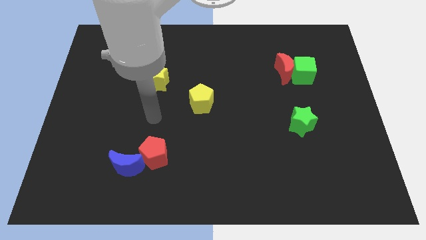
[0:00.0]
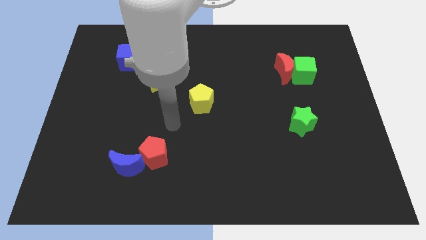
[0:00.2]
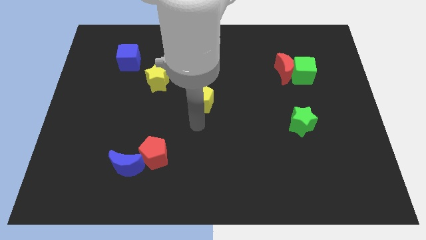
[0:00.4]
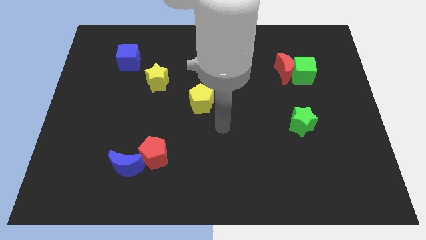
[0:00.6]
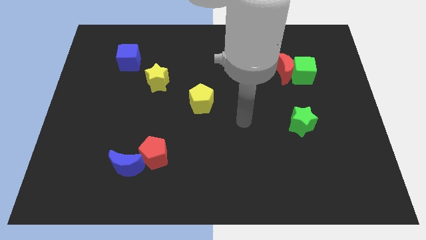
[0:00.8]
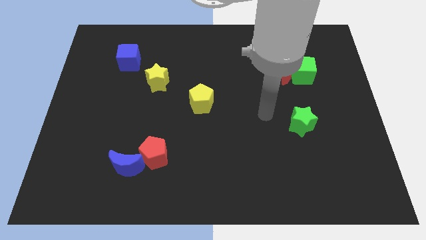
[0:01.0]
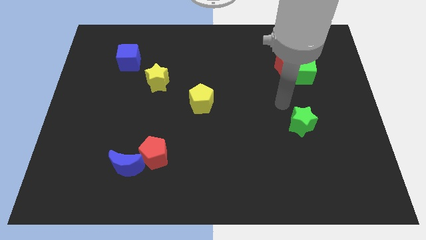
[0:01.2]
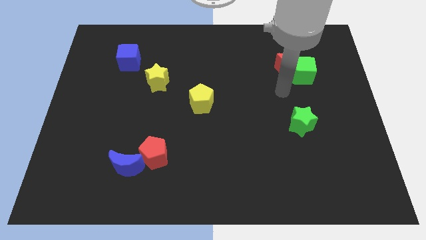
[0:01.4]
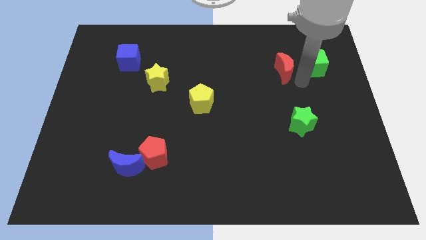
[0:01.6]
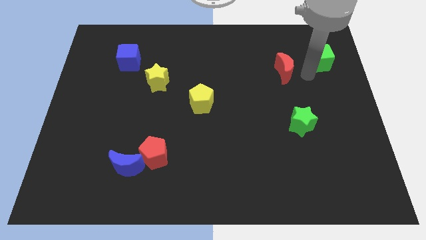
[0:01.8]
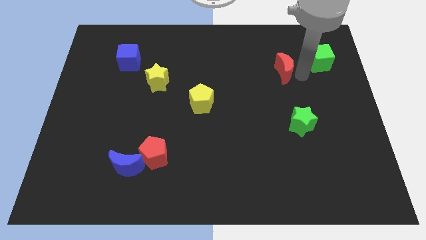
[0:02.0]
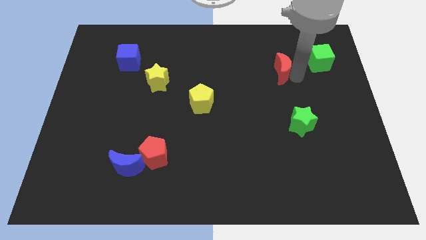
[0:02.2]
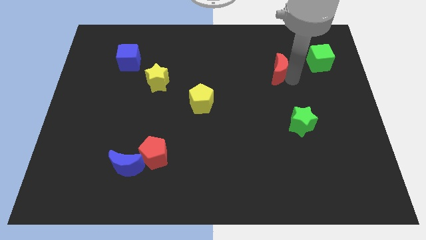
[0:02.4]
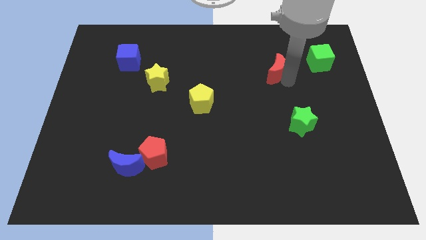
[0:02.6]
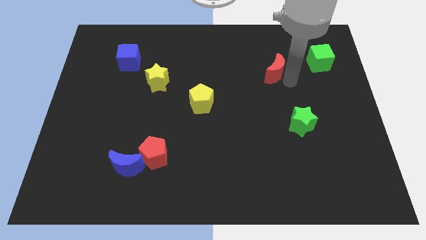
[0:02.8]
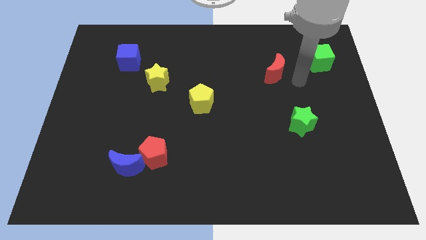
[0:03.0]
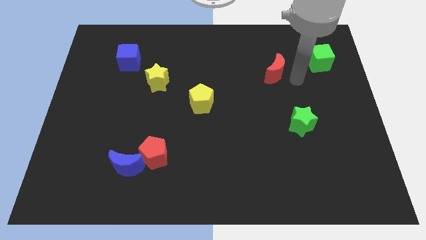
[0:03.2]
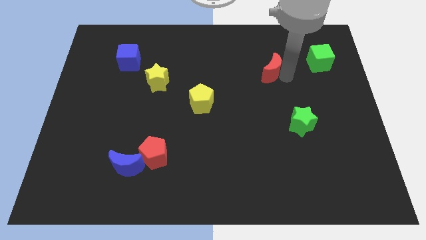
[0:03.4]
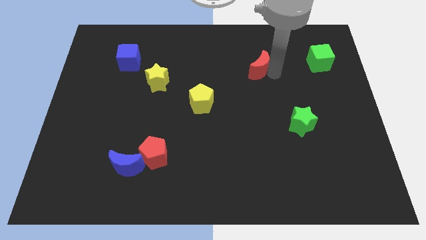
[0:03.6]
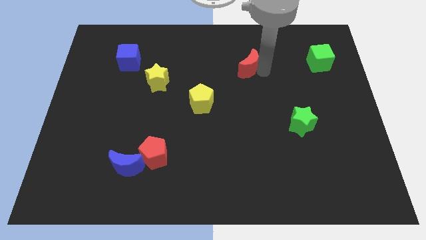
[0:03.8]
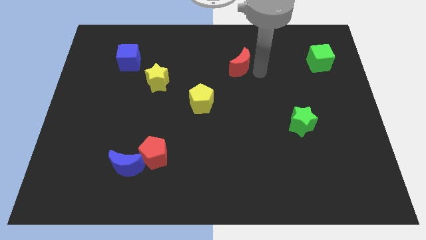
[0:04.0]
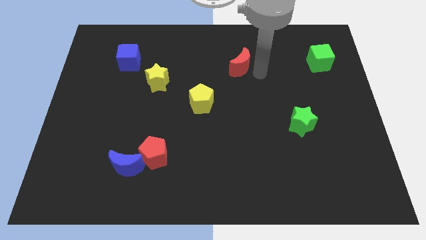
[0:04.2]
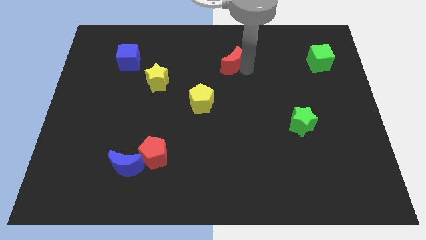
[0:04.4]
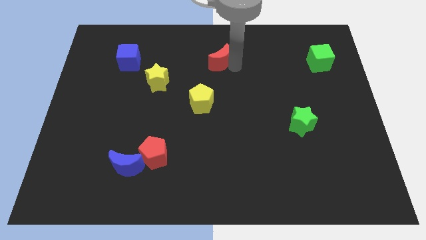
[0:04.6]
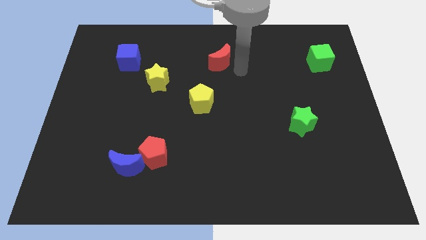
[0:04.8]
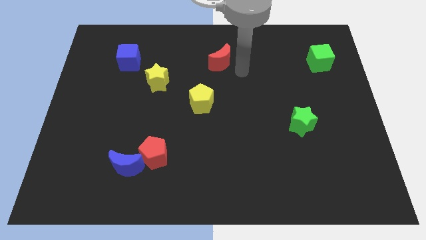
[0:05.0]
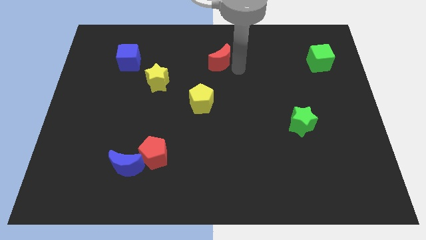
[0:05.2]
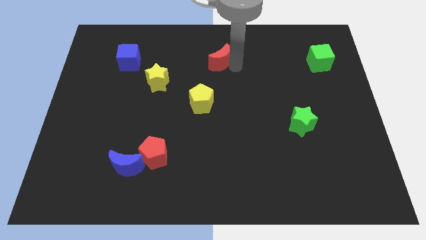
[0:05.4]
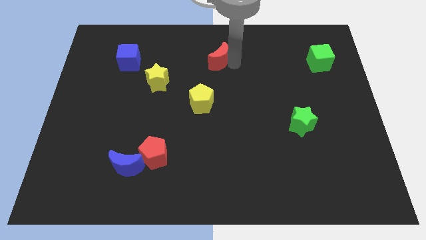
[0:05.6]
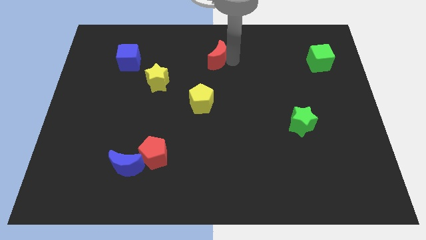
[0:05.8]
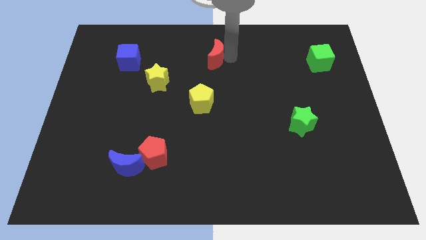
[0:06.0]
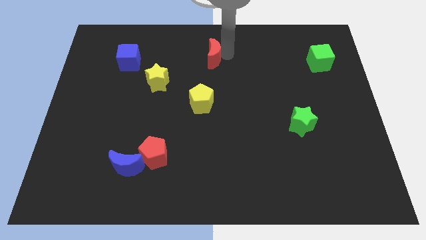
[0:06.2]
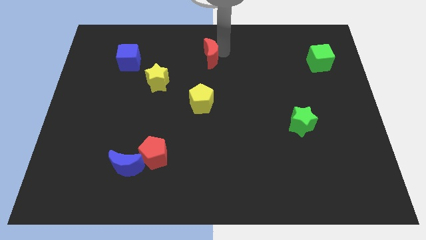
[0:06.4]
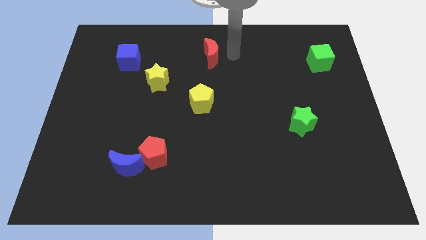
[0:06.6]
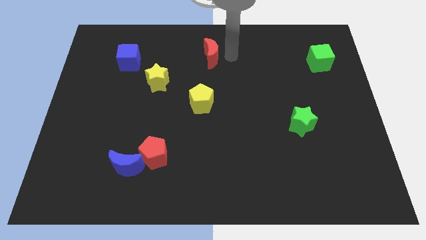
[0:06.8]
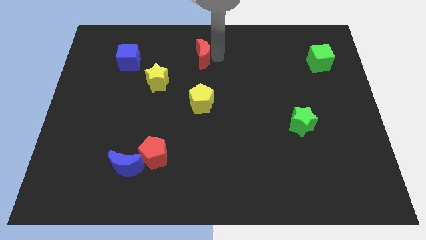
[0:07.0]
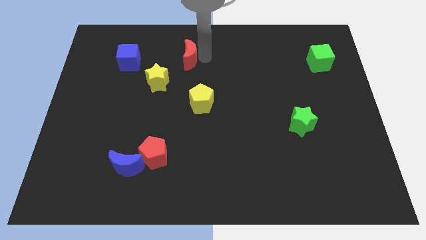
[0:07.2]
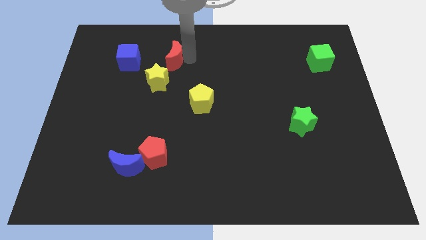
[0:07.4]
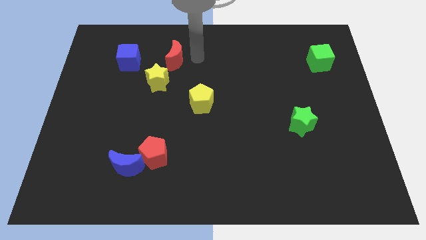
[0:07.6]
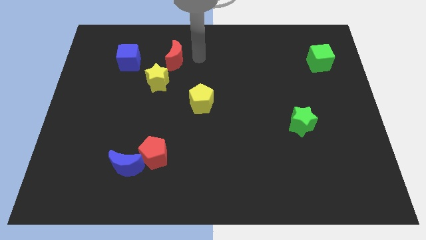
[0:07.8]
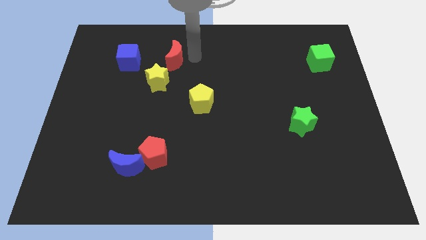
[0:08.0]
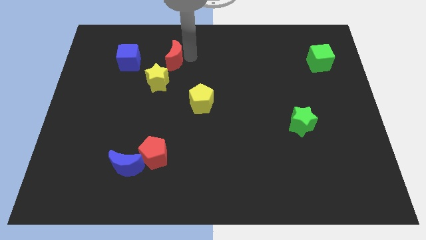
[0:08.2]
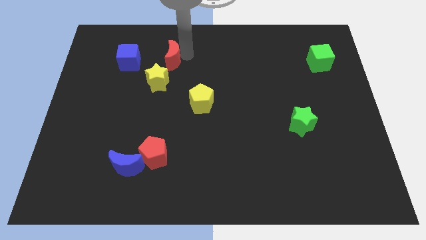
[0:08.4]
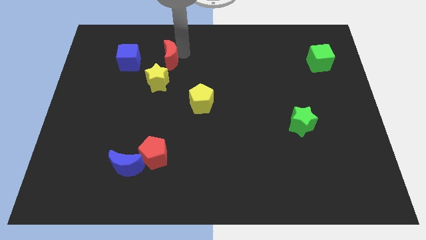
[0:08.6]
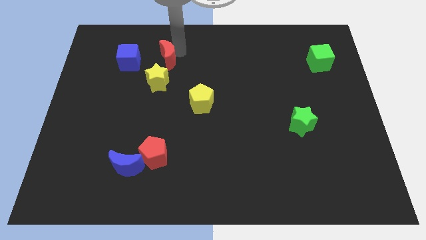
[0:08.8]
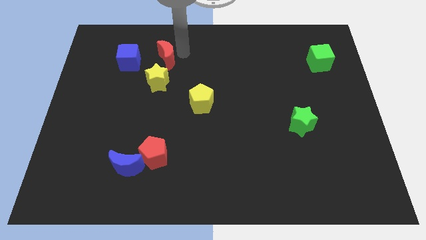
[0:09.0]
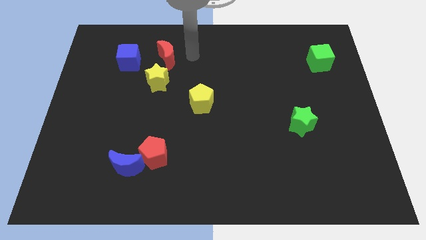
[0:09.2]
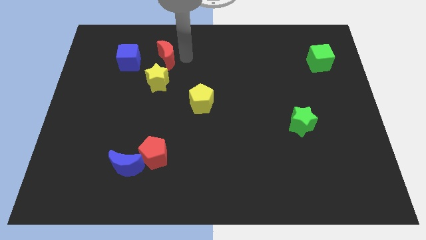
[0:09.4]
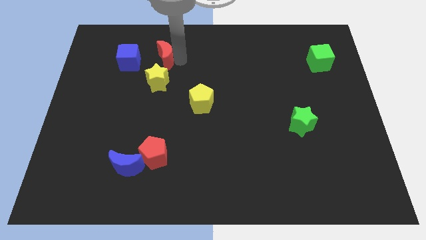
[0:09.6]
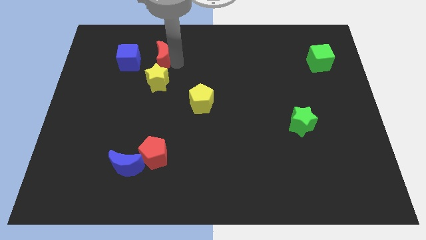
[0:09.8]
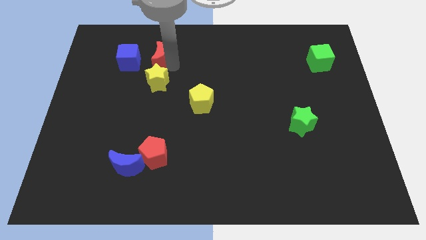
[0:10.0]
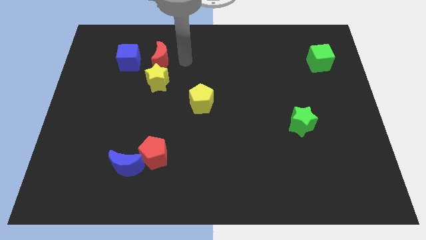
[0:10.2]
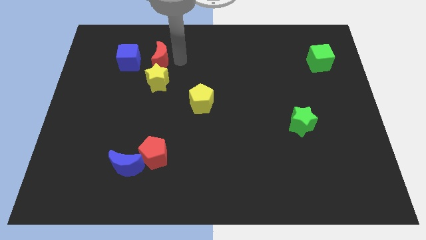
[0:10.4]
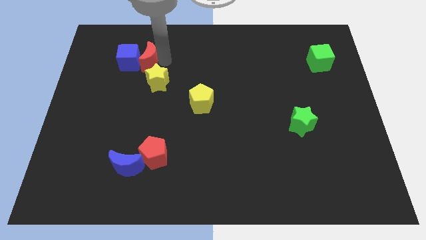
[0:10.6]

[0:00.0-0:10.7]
slide the red moon close to the blue cube

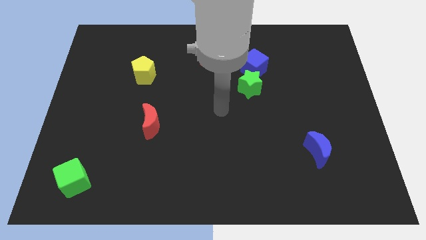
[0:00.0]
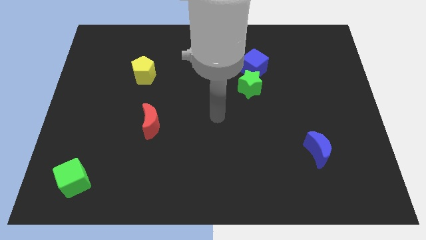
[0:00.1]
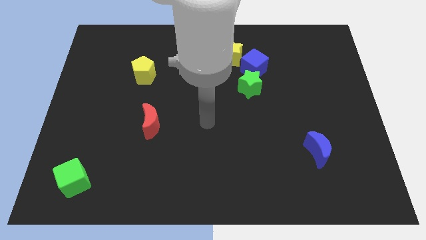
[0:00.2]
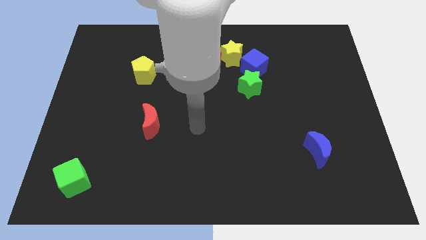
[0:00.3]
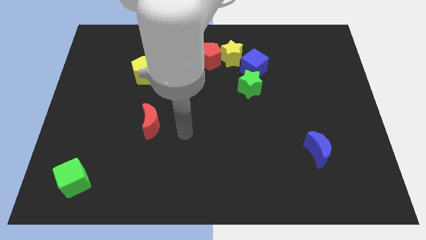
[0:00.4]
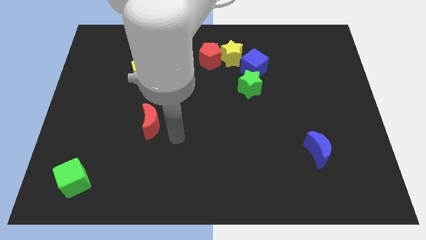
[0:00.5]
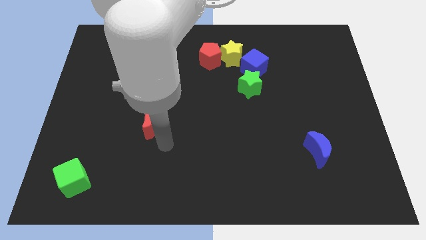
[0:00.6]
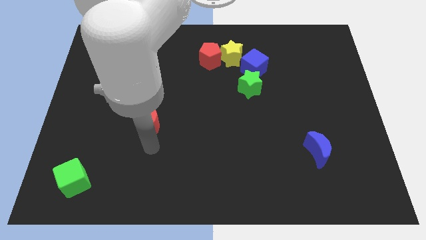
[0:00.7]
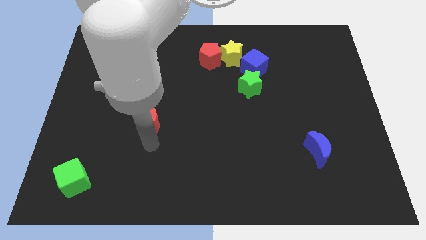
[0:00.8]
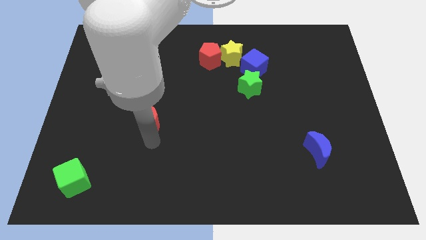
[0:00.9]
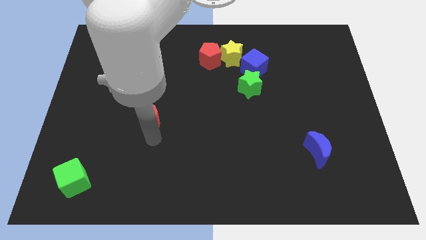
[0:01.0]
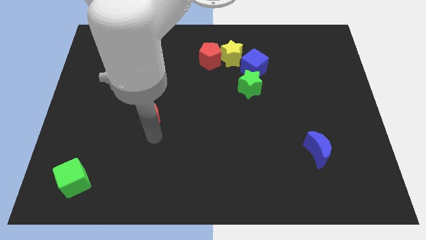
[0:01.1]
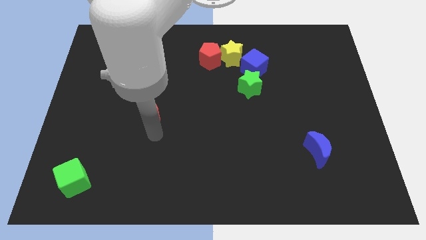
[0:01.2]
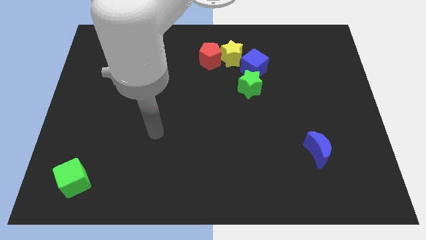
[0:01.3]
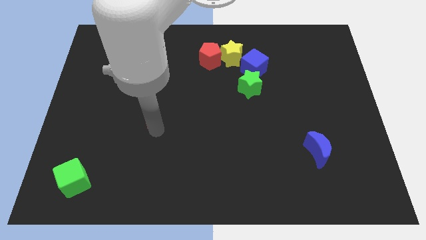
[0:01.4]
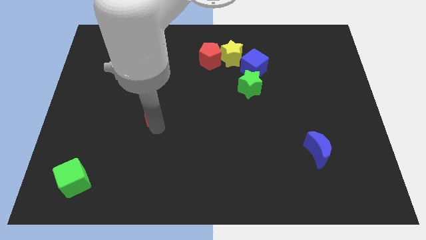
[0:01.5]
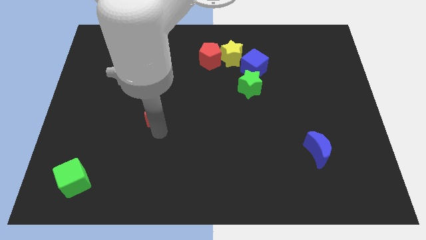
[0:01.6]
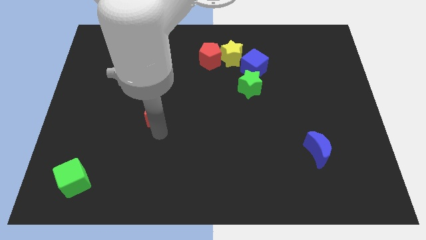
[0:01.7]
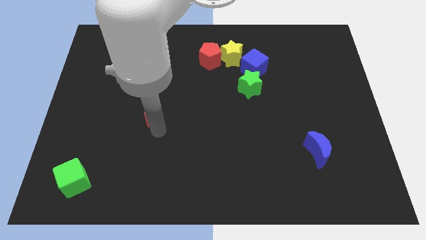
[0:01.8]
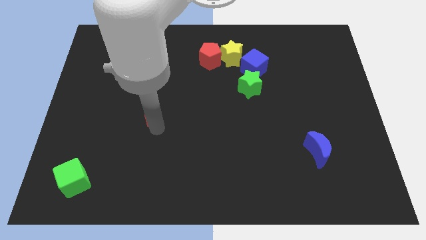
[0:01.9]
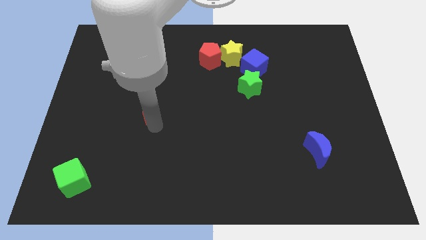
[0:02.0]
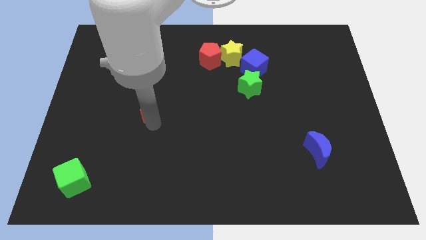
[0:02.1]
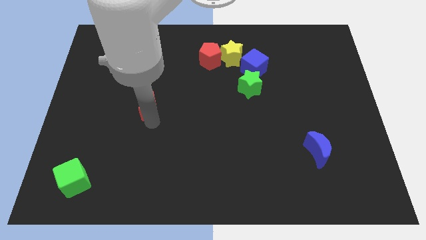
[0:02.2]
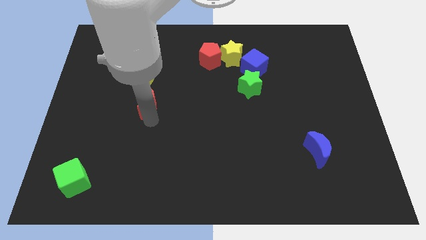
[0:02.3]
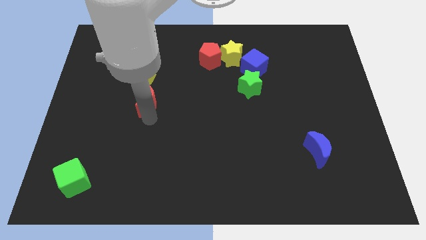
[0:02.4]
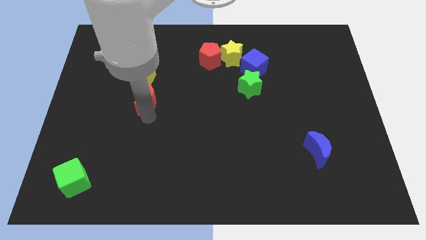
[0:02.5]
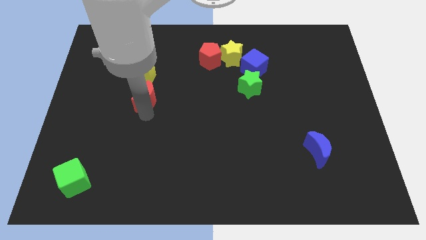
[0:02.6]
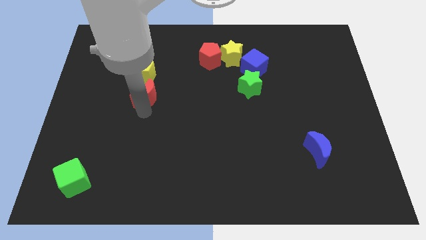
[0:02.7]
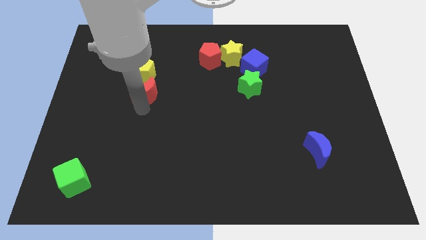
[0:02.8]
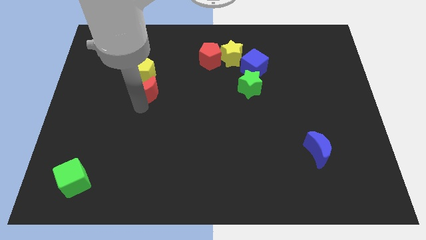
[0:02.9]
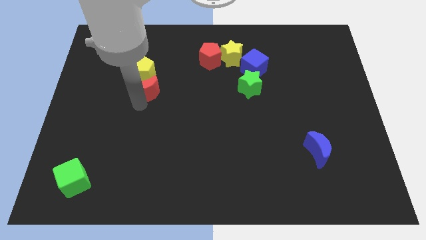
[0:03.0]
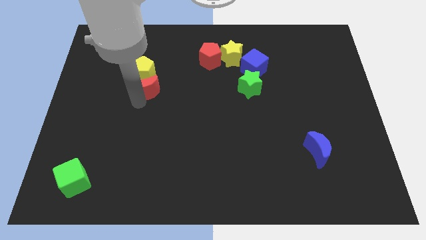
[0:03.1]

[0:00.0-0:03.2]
put the red moon close to the yellow pentagon
